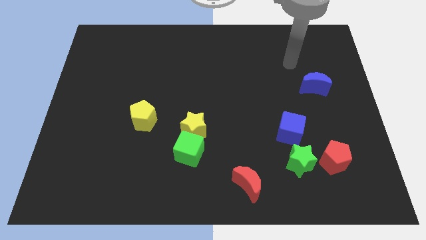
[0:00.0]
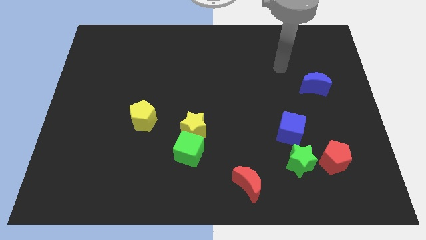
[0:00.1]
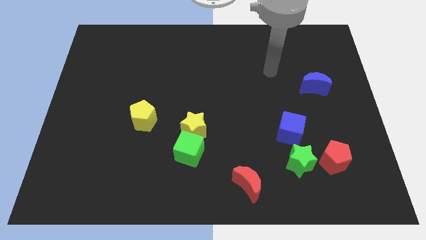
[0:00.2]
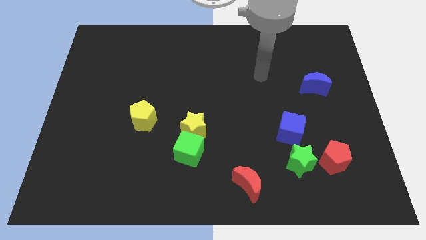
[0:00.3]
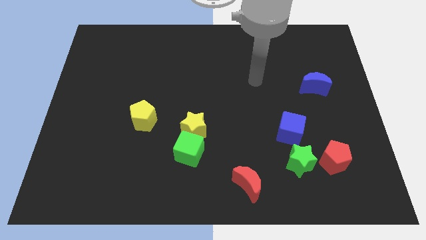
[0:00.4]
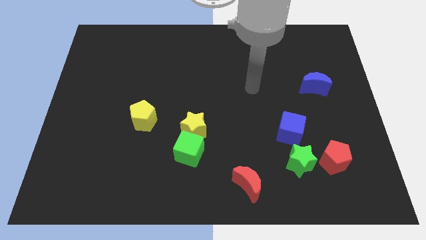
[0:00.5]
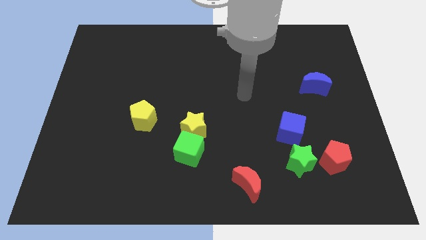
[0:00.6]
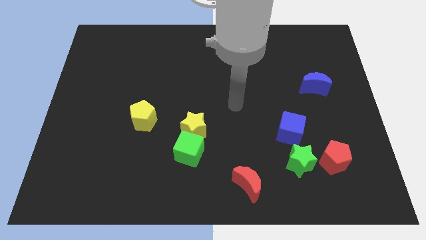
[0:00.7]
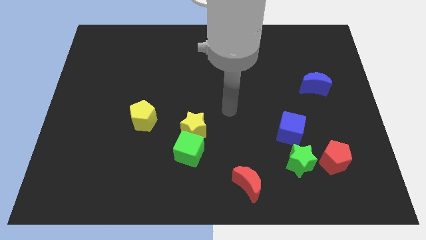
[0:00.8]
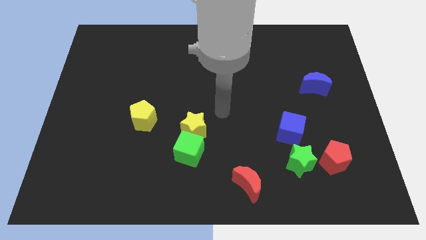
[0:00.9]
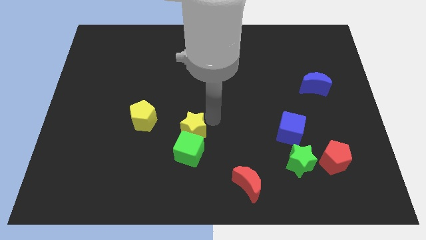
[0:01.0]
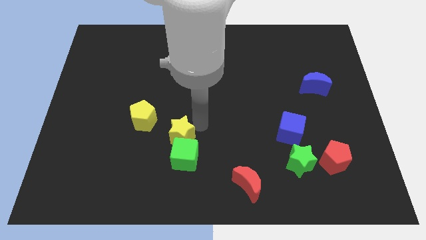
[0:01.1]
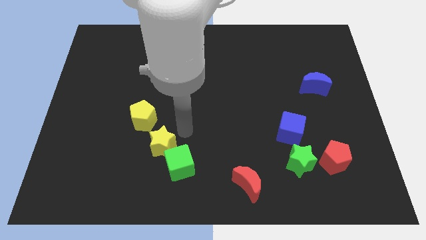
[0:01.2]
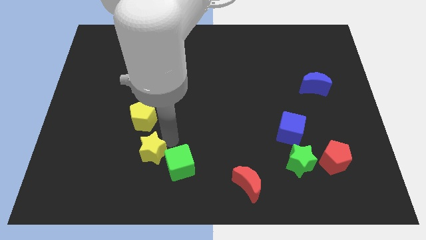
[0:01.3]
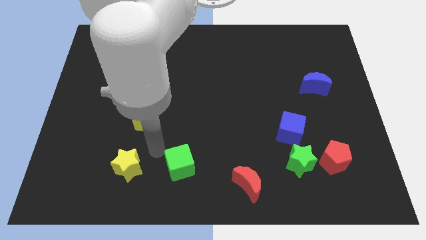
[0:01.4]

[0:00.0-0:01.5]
separate the green cube from the yellow star

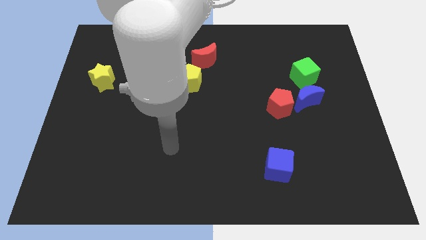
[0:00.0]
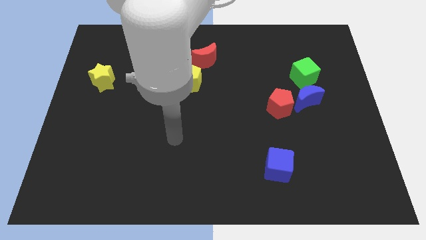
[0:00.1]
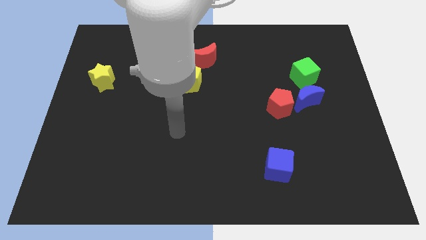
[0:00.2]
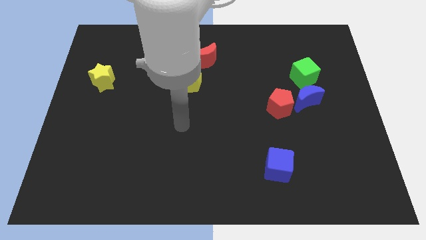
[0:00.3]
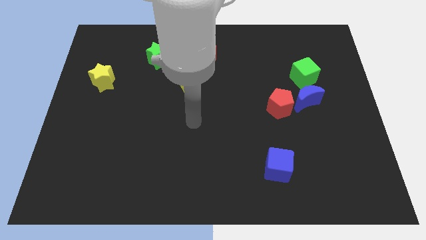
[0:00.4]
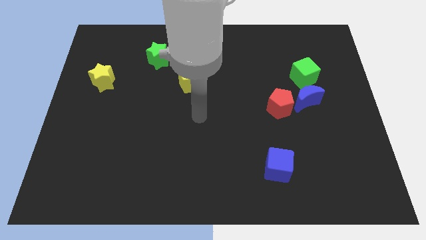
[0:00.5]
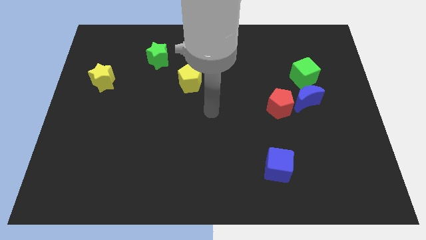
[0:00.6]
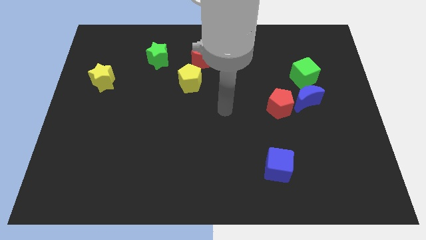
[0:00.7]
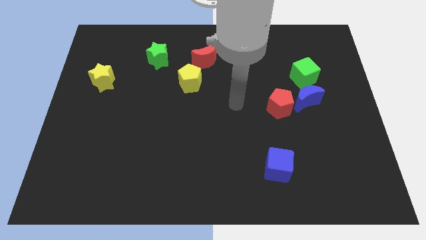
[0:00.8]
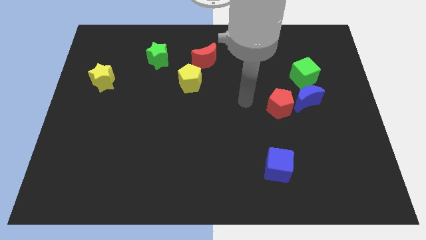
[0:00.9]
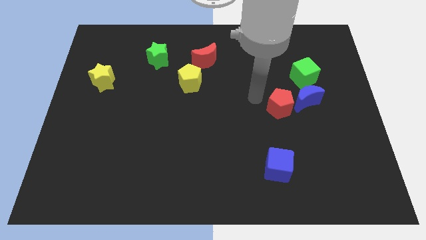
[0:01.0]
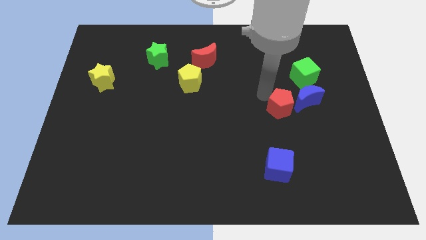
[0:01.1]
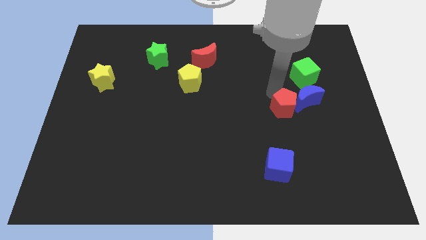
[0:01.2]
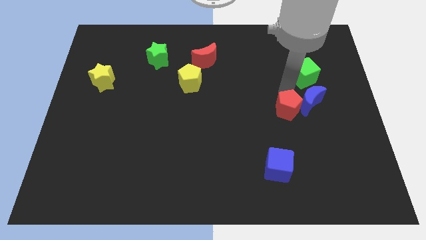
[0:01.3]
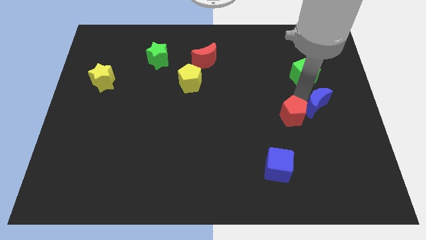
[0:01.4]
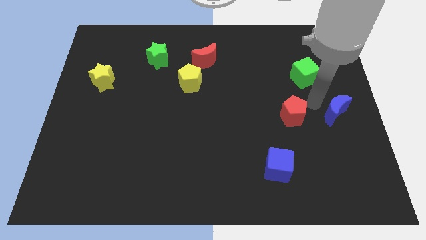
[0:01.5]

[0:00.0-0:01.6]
pull the red pentagon apart from the blue moon

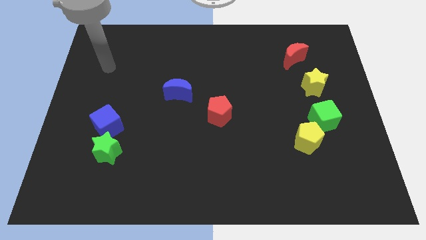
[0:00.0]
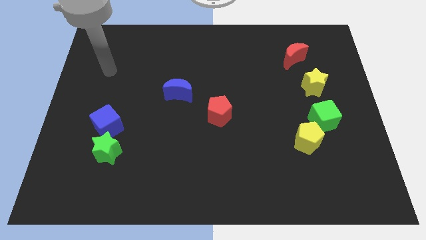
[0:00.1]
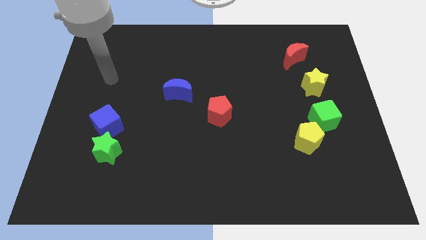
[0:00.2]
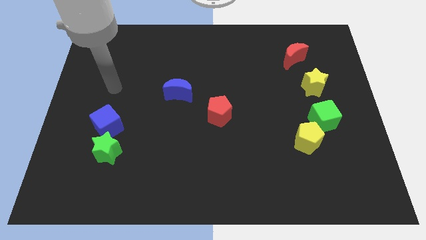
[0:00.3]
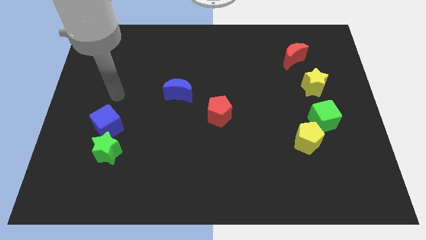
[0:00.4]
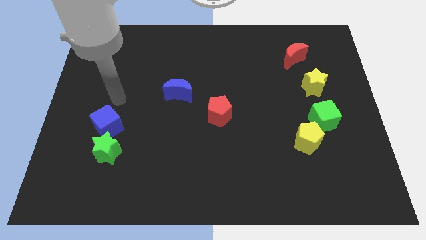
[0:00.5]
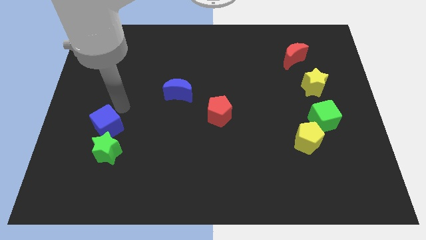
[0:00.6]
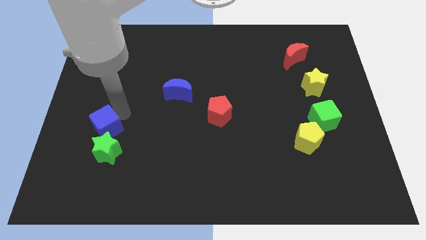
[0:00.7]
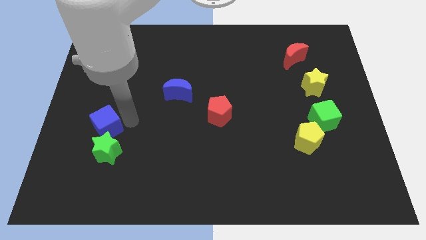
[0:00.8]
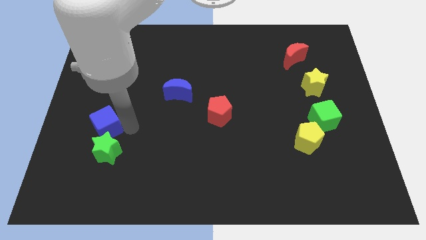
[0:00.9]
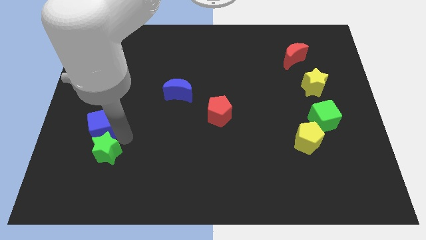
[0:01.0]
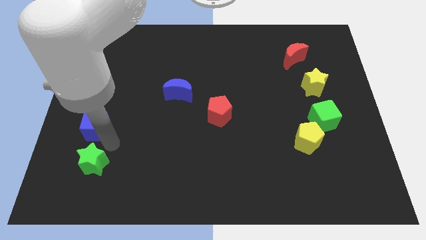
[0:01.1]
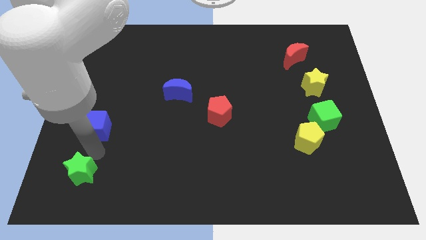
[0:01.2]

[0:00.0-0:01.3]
separate the blue cube from the green star

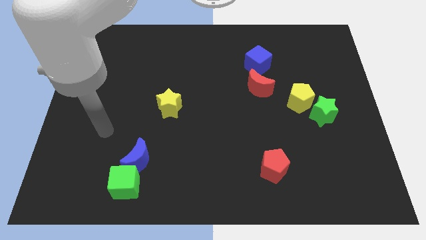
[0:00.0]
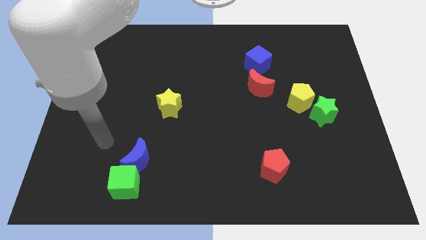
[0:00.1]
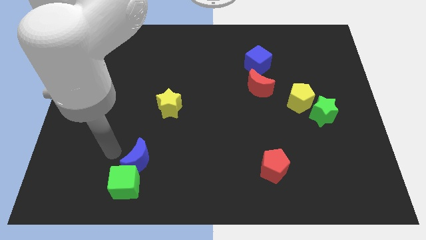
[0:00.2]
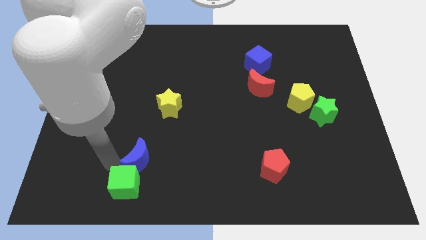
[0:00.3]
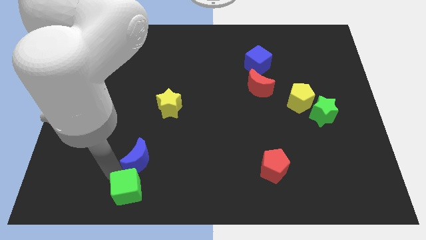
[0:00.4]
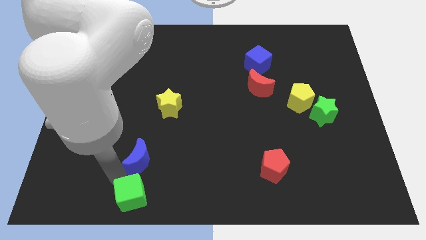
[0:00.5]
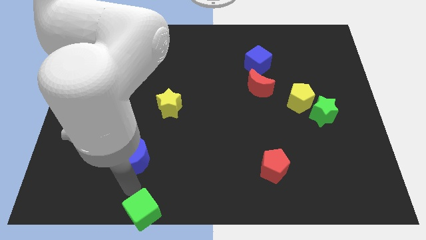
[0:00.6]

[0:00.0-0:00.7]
separate the blue moon from the green cube

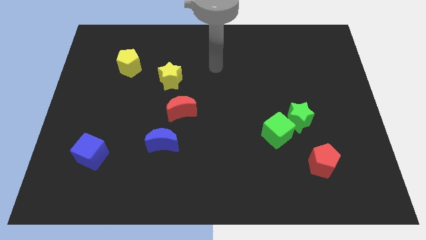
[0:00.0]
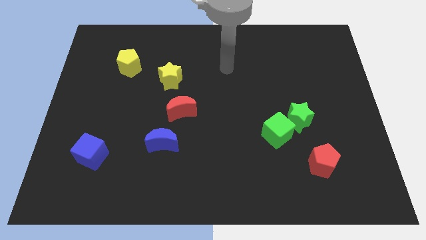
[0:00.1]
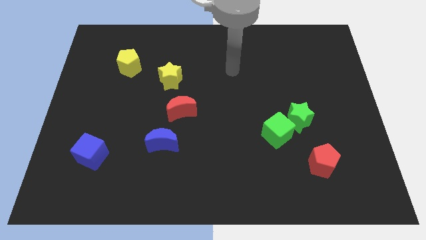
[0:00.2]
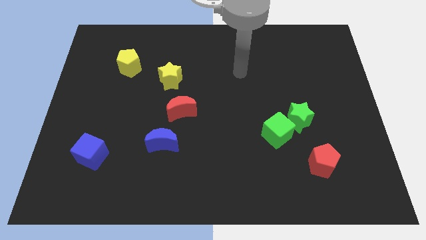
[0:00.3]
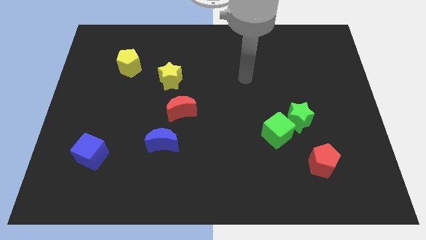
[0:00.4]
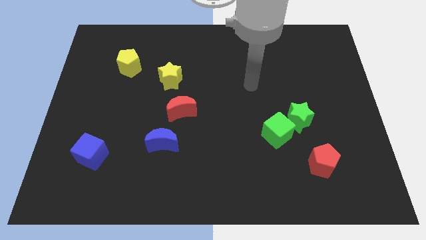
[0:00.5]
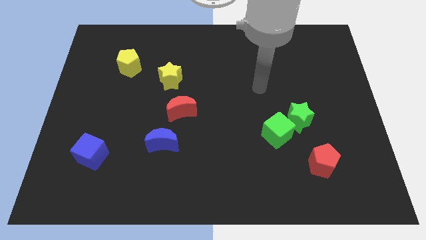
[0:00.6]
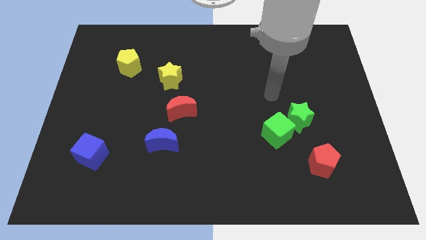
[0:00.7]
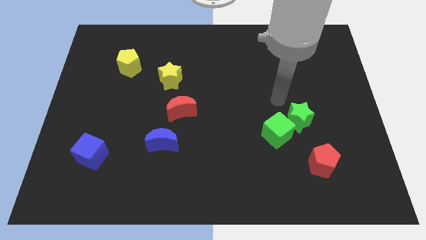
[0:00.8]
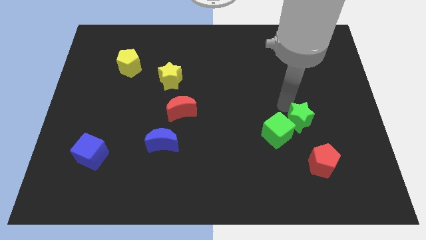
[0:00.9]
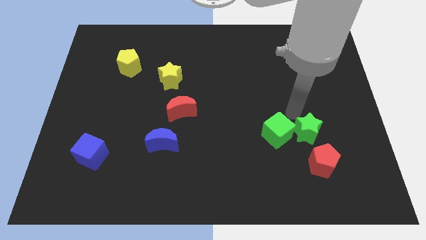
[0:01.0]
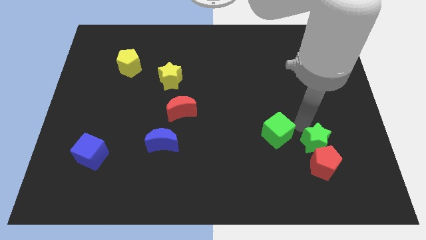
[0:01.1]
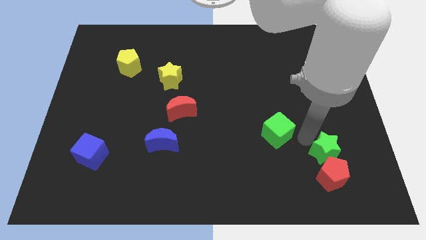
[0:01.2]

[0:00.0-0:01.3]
move the green cube away from the green star

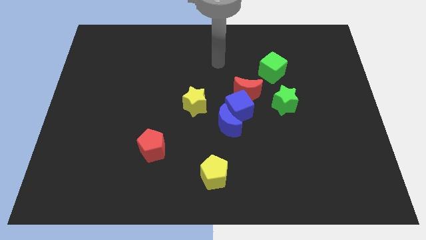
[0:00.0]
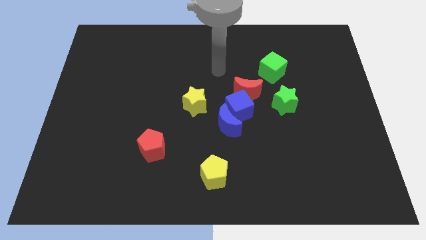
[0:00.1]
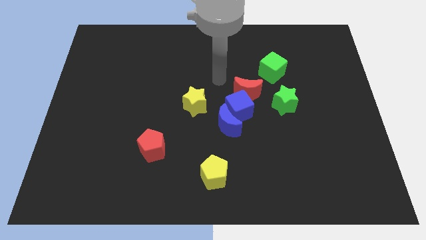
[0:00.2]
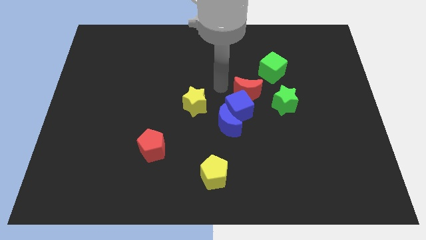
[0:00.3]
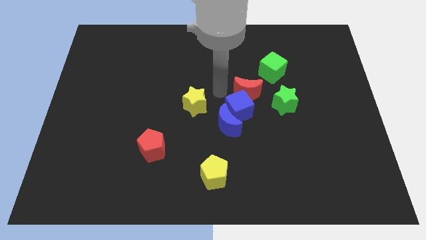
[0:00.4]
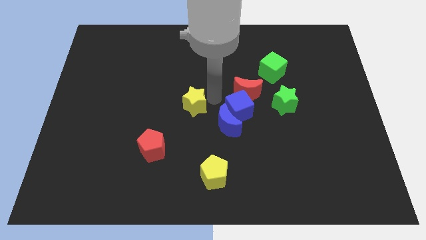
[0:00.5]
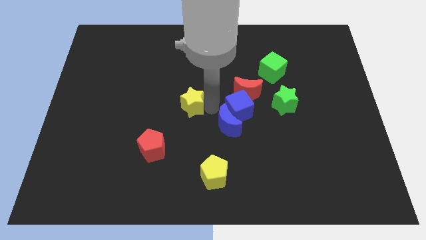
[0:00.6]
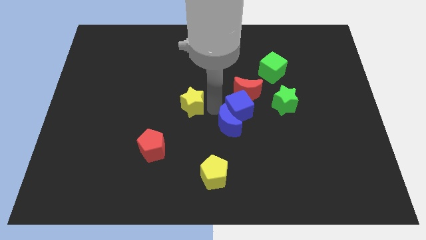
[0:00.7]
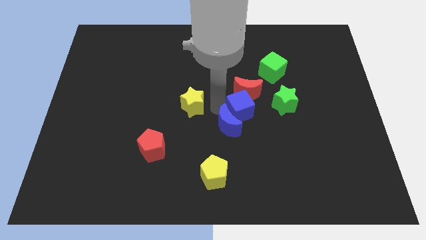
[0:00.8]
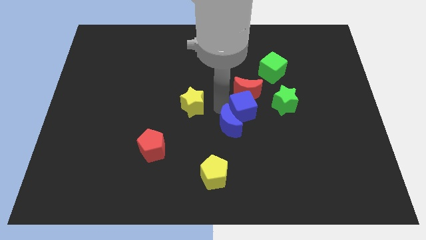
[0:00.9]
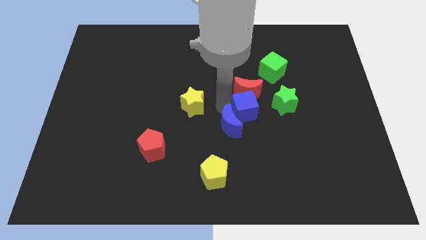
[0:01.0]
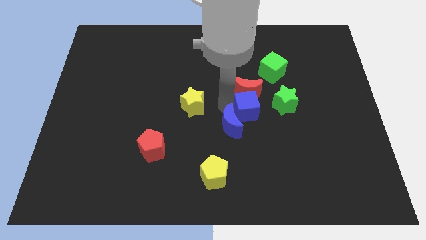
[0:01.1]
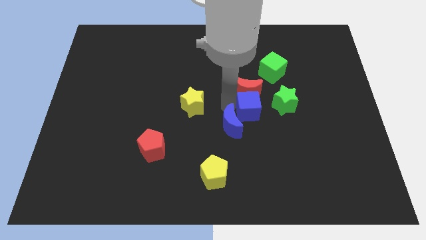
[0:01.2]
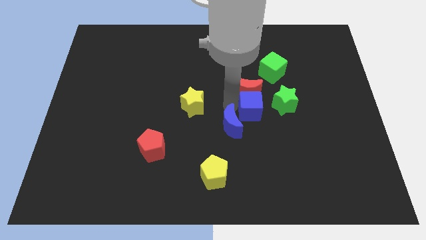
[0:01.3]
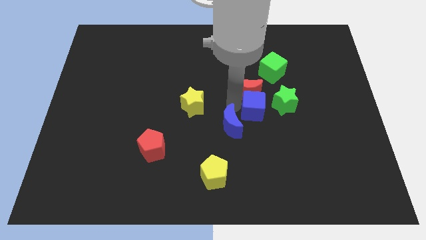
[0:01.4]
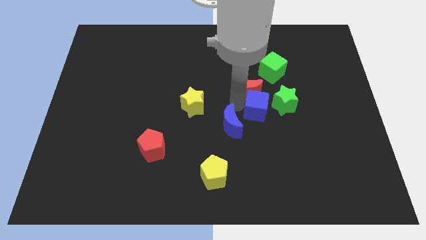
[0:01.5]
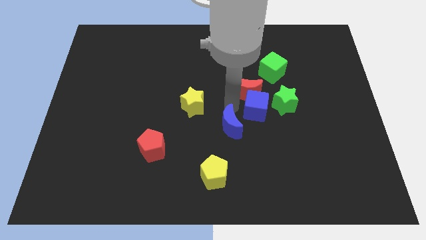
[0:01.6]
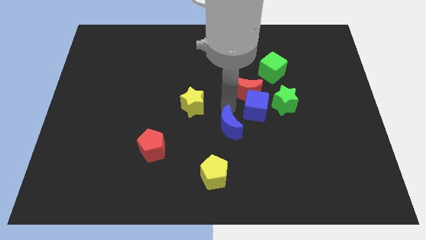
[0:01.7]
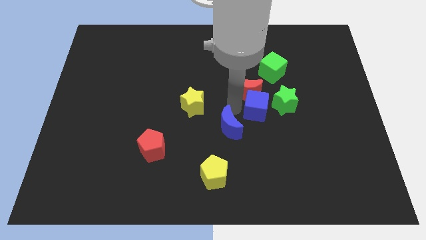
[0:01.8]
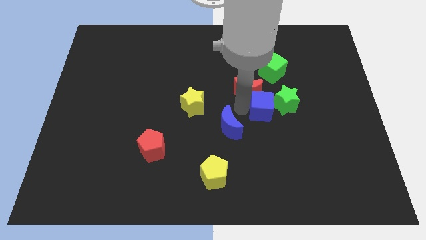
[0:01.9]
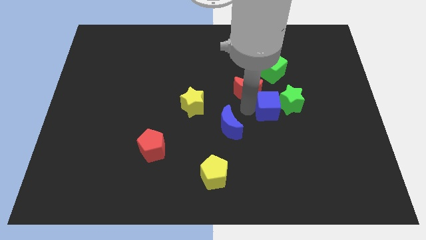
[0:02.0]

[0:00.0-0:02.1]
pull the blue cube apart from the clump

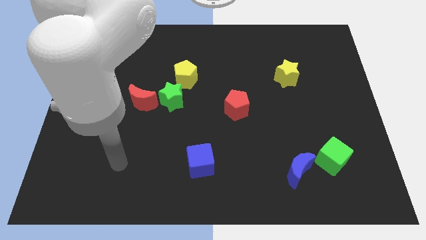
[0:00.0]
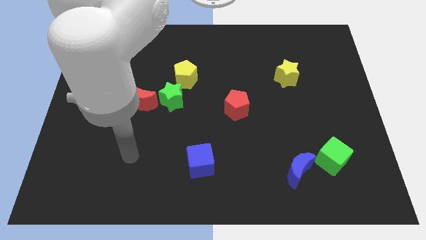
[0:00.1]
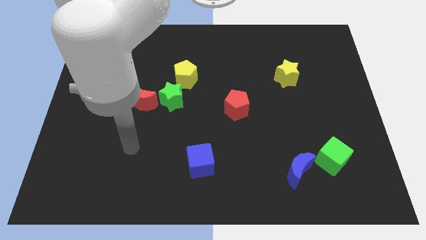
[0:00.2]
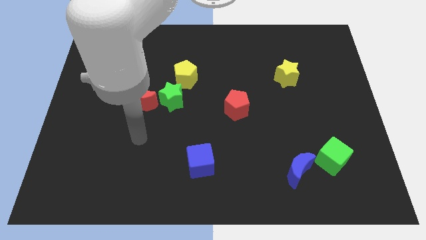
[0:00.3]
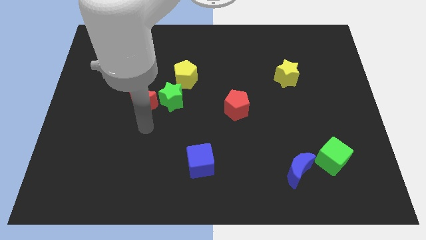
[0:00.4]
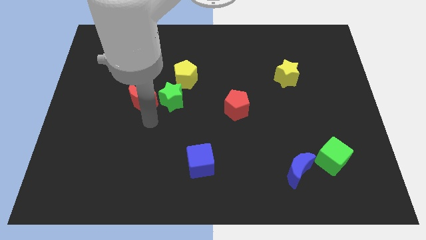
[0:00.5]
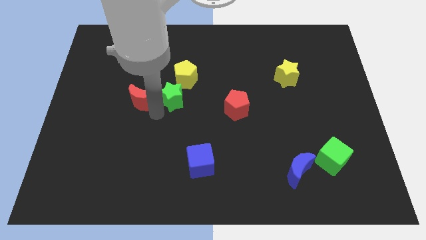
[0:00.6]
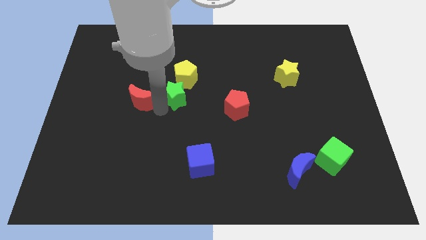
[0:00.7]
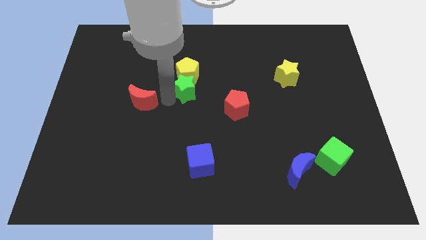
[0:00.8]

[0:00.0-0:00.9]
pull the red moon apart from the green star

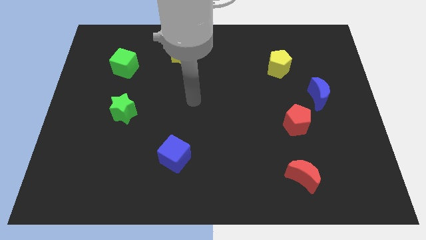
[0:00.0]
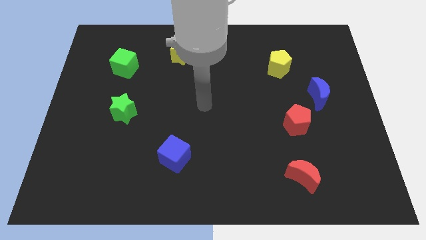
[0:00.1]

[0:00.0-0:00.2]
separate the red pentagon from the blue moon
